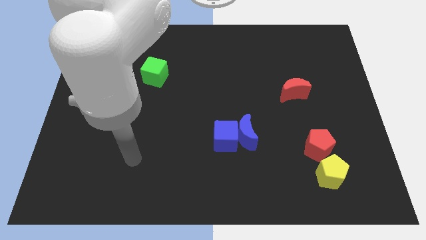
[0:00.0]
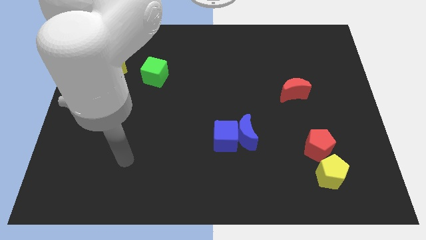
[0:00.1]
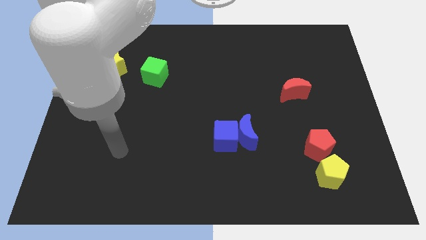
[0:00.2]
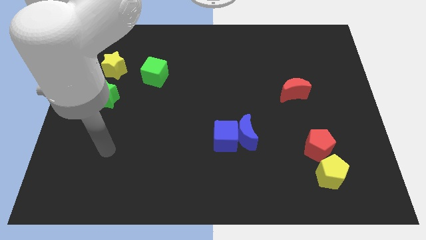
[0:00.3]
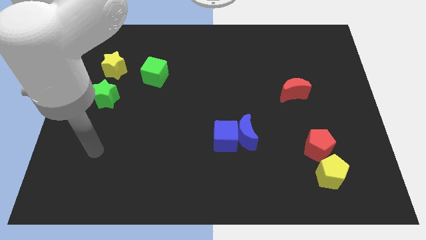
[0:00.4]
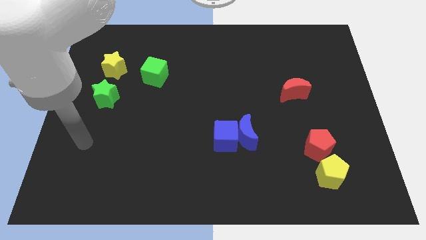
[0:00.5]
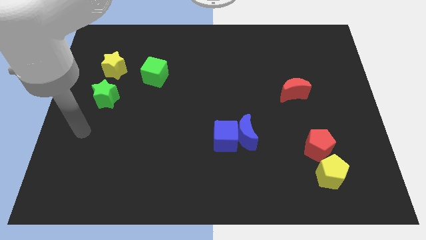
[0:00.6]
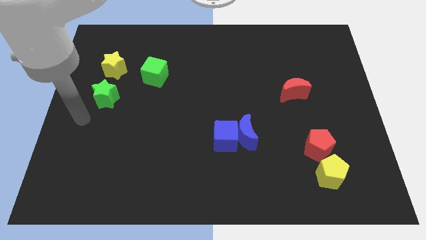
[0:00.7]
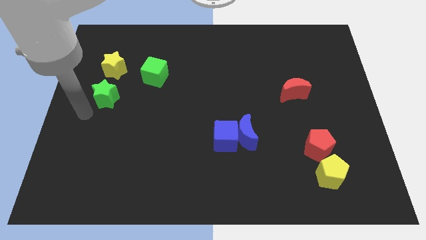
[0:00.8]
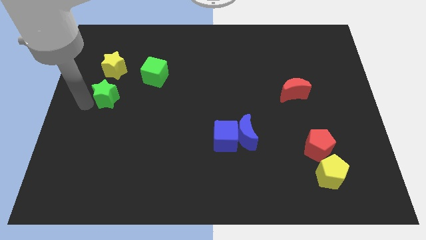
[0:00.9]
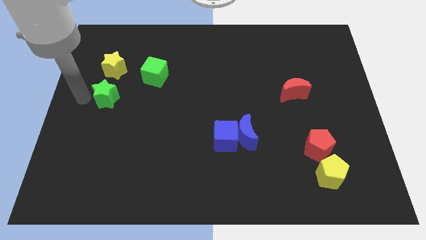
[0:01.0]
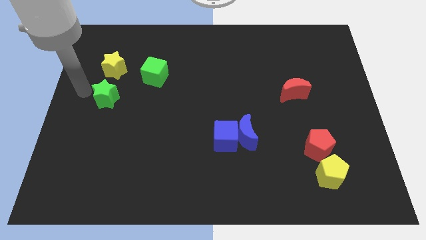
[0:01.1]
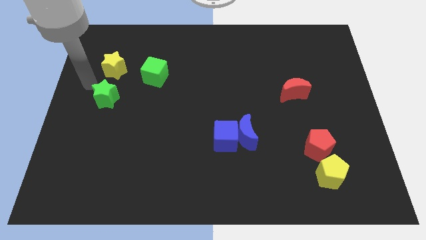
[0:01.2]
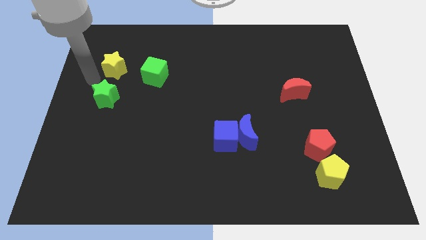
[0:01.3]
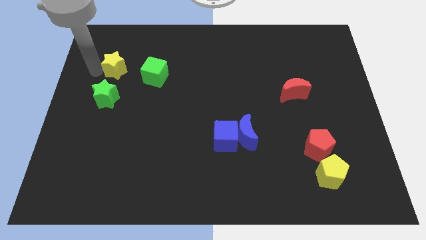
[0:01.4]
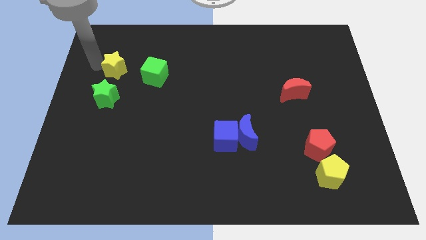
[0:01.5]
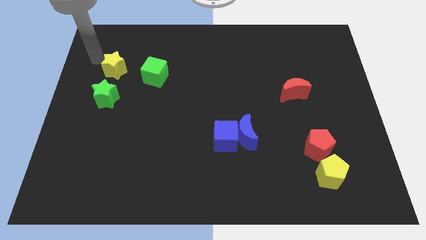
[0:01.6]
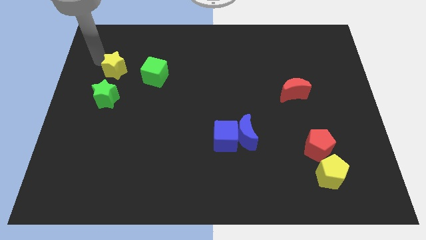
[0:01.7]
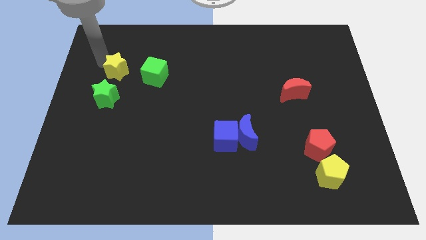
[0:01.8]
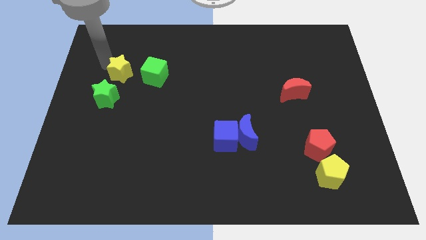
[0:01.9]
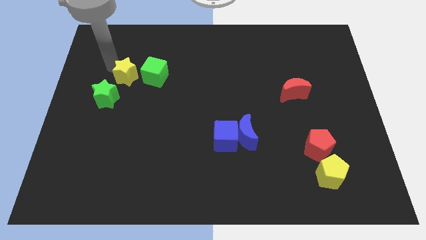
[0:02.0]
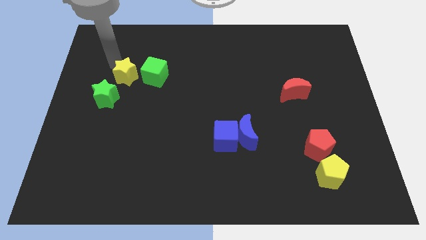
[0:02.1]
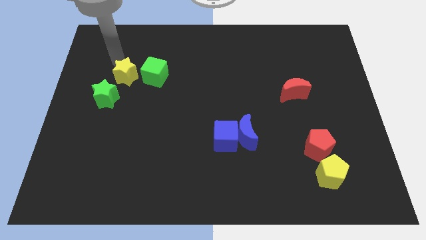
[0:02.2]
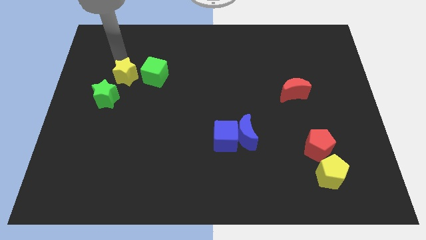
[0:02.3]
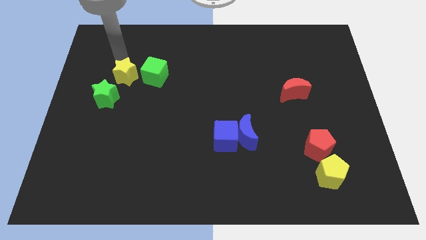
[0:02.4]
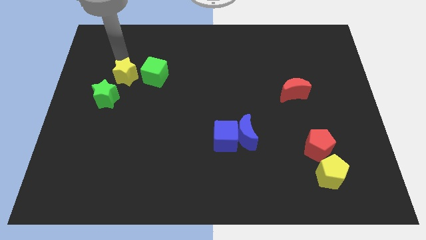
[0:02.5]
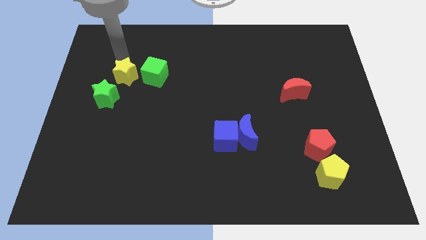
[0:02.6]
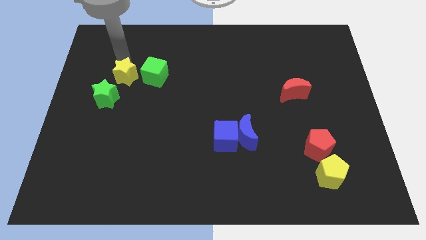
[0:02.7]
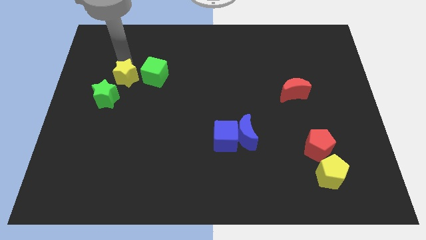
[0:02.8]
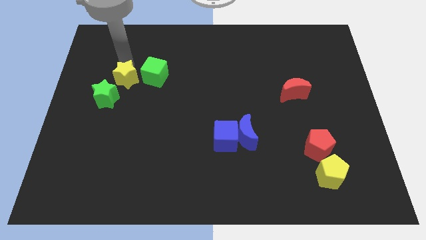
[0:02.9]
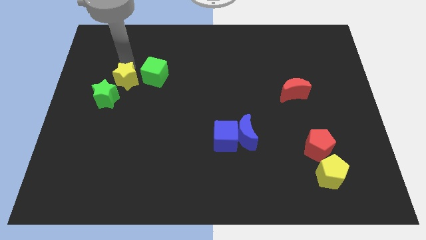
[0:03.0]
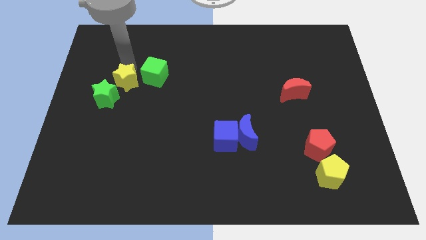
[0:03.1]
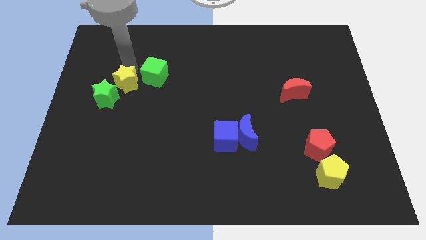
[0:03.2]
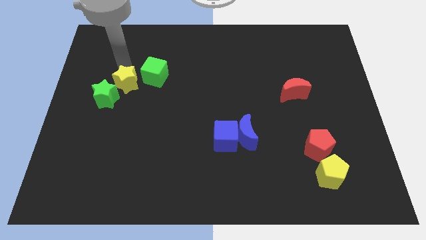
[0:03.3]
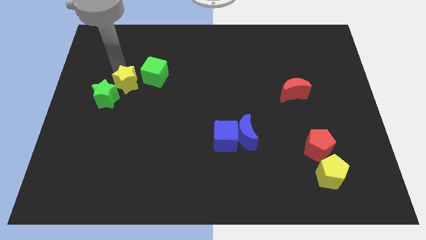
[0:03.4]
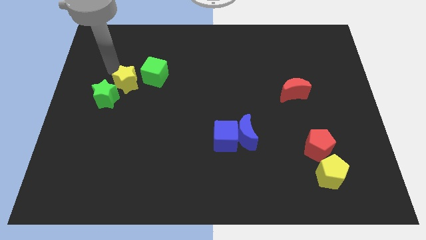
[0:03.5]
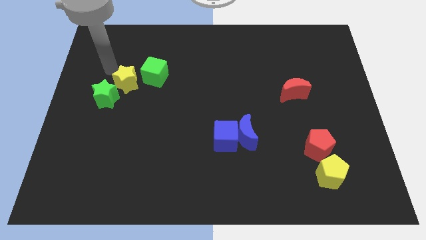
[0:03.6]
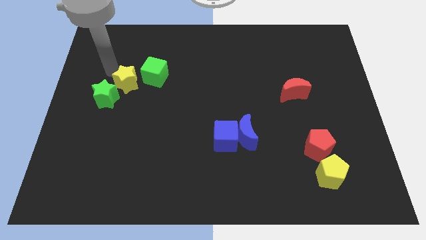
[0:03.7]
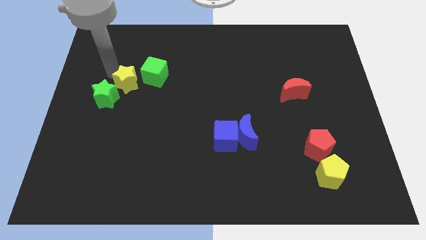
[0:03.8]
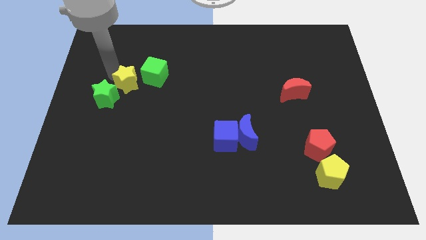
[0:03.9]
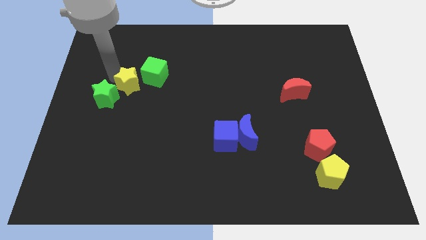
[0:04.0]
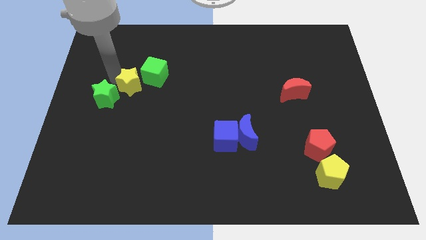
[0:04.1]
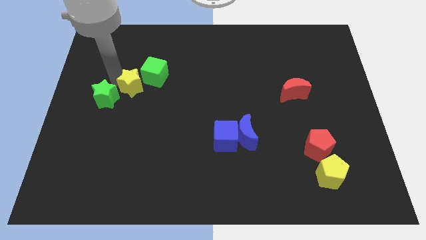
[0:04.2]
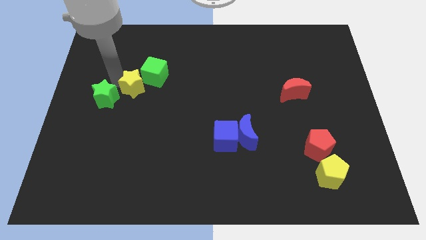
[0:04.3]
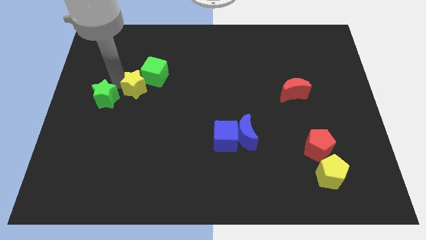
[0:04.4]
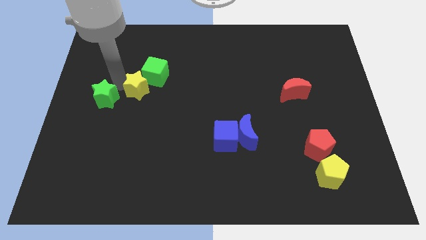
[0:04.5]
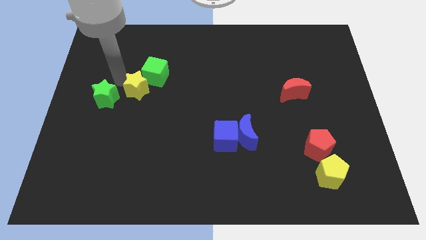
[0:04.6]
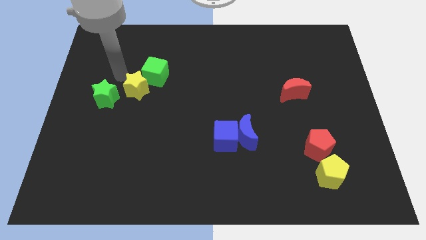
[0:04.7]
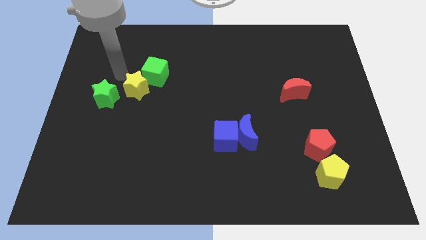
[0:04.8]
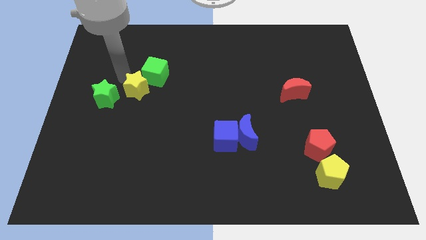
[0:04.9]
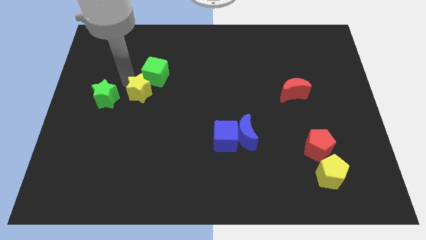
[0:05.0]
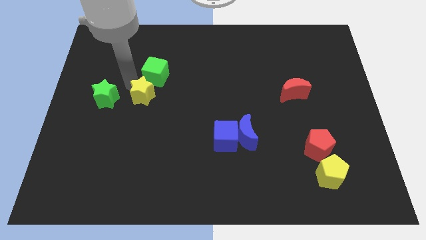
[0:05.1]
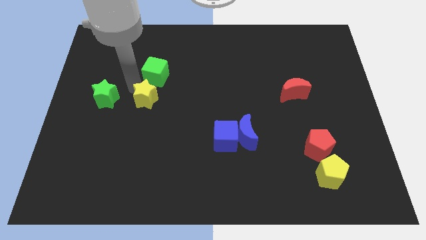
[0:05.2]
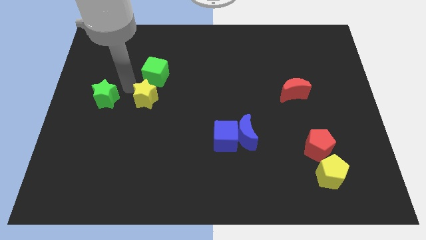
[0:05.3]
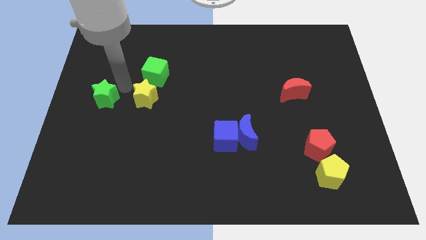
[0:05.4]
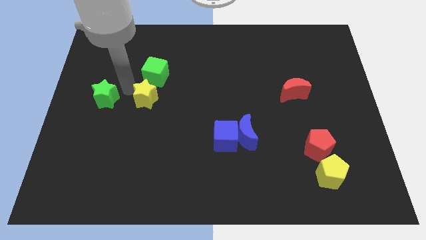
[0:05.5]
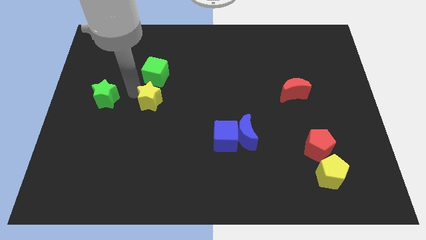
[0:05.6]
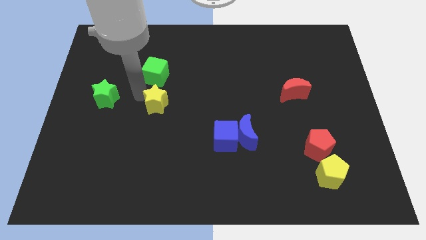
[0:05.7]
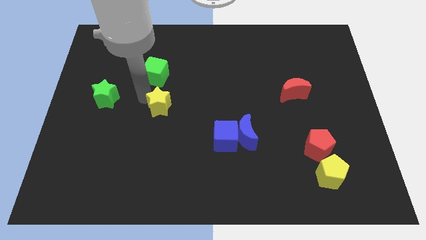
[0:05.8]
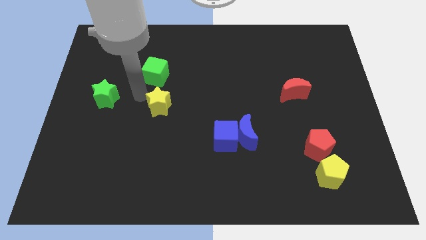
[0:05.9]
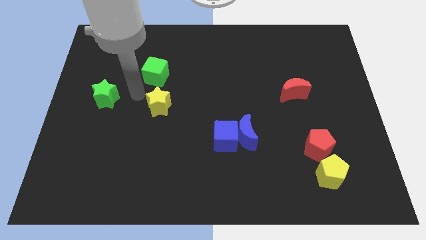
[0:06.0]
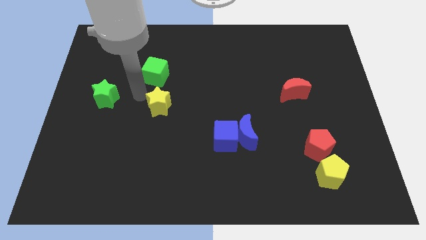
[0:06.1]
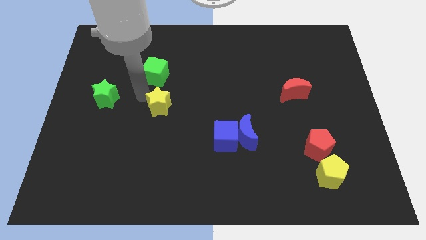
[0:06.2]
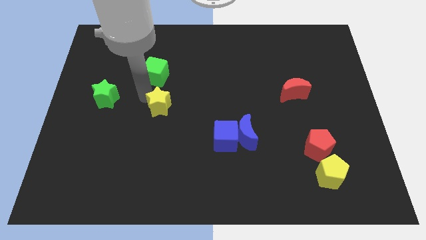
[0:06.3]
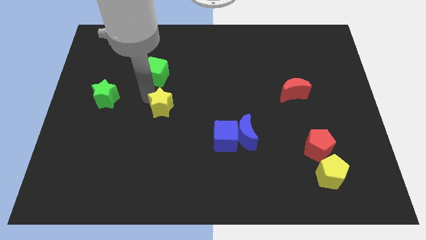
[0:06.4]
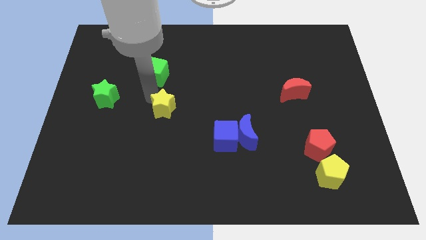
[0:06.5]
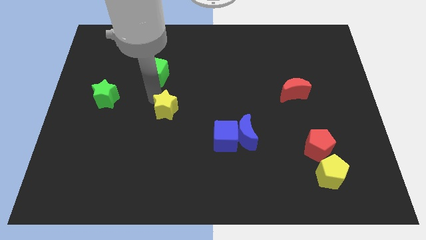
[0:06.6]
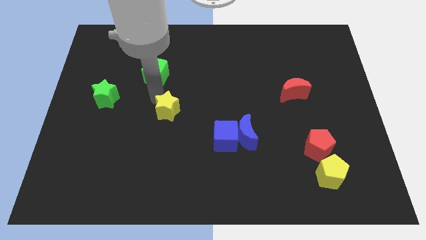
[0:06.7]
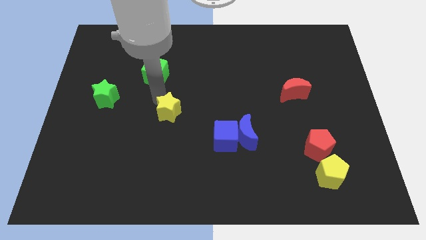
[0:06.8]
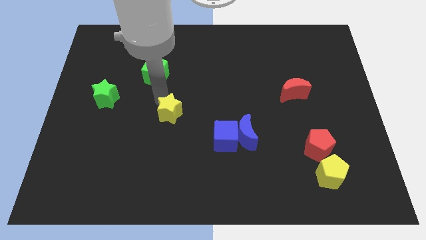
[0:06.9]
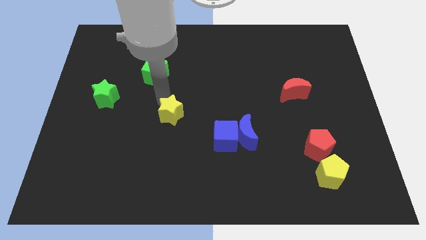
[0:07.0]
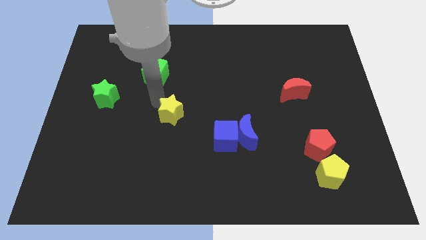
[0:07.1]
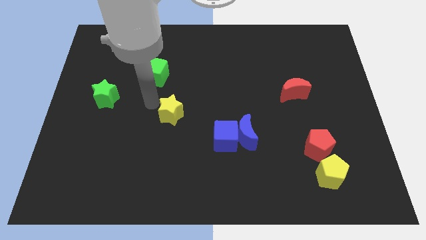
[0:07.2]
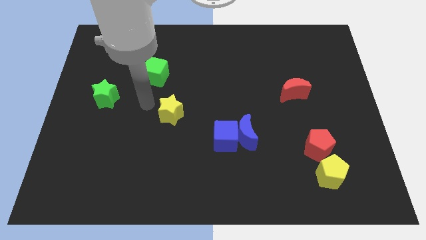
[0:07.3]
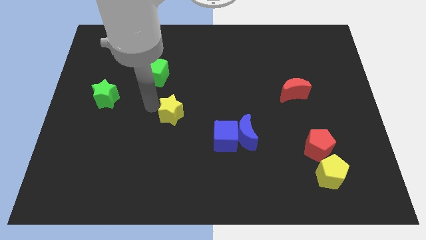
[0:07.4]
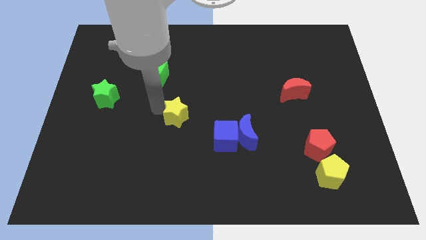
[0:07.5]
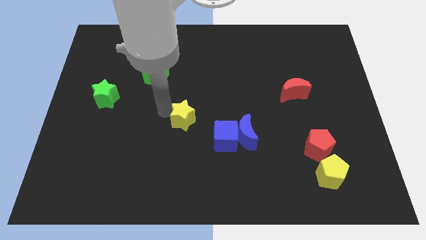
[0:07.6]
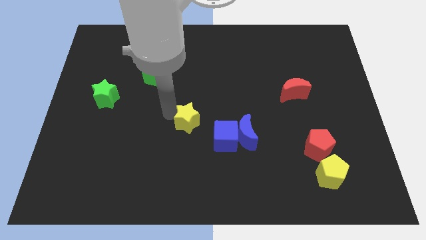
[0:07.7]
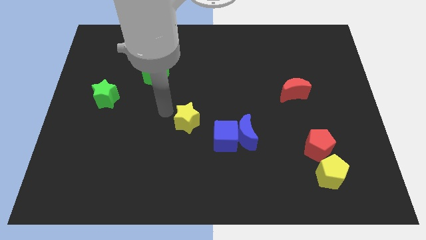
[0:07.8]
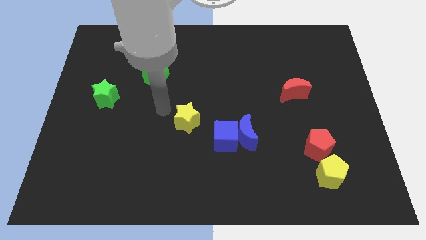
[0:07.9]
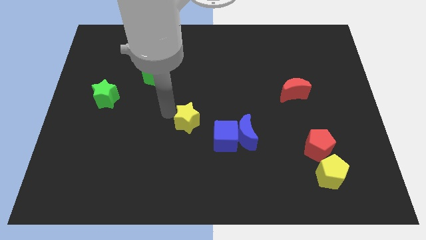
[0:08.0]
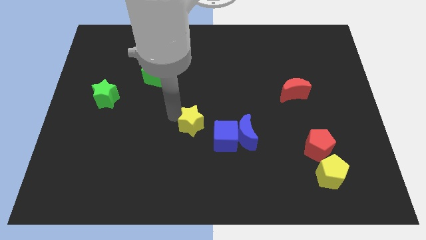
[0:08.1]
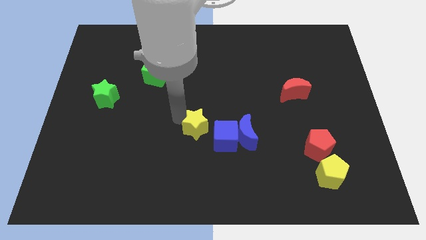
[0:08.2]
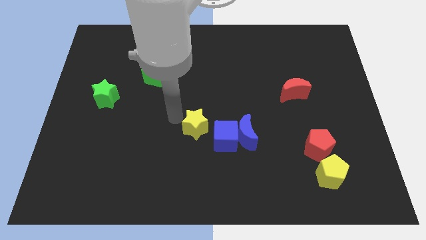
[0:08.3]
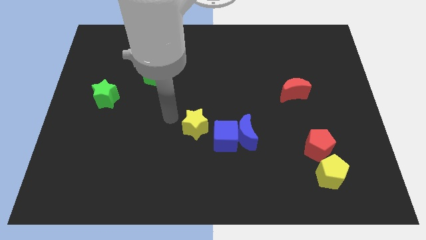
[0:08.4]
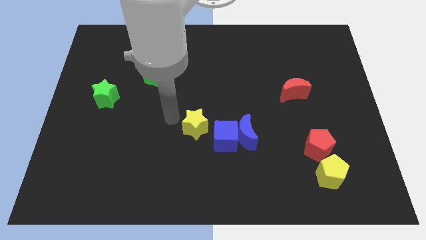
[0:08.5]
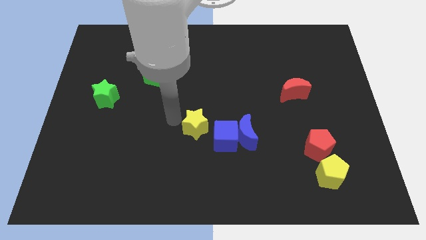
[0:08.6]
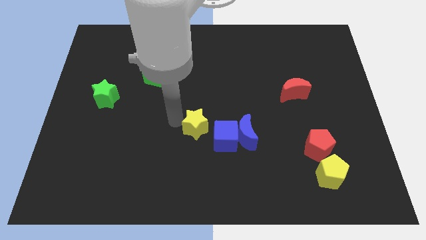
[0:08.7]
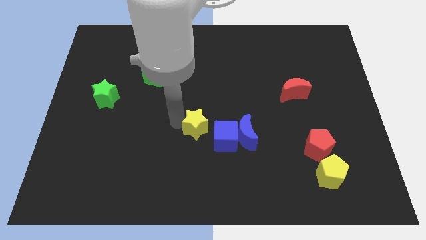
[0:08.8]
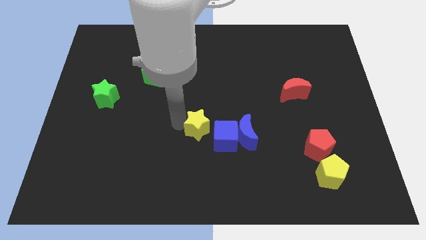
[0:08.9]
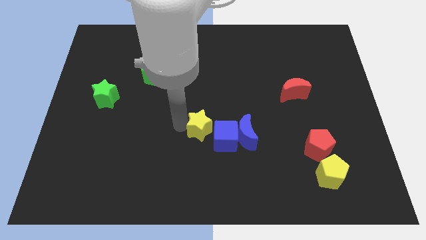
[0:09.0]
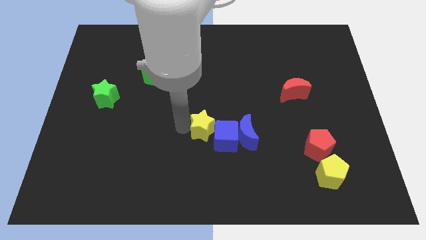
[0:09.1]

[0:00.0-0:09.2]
slide the yellow star close to the blue cube
